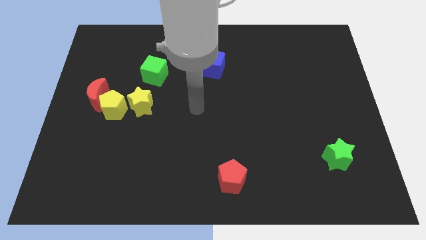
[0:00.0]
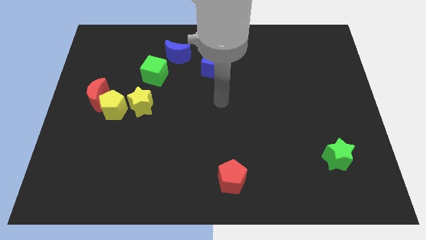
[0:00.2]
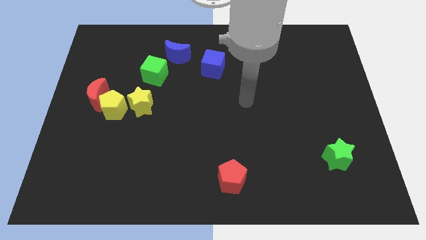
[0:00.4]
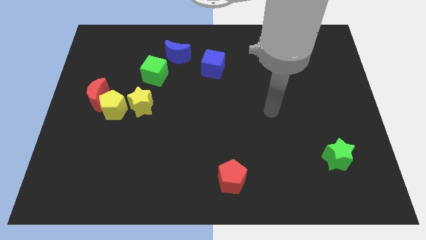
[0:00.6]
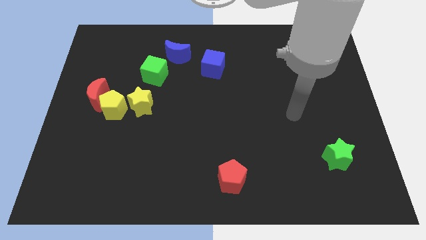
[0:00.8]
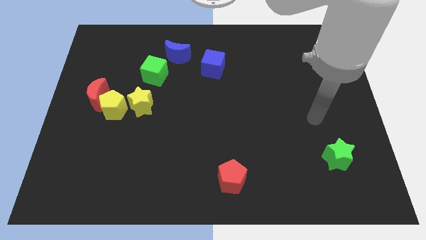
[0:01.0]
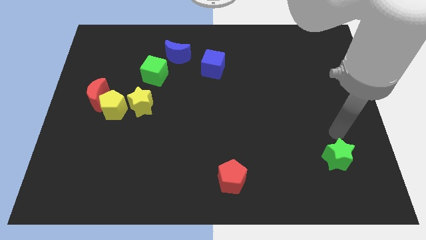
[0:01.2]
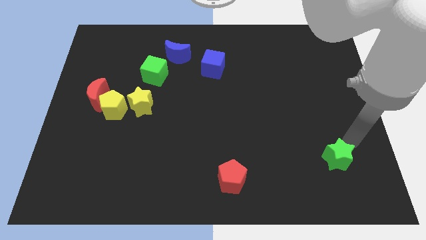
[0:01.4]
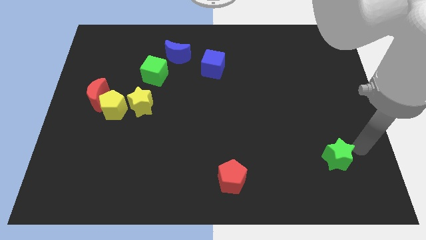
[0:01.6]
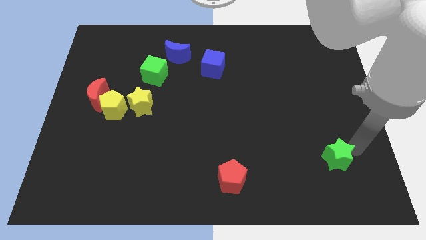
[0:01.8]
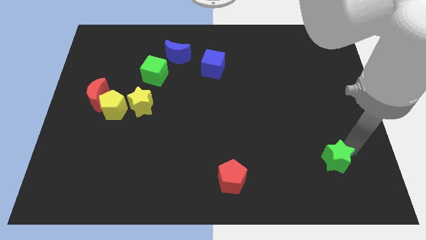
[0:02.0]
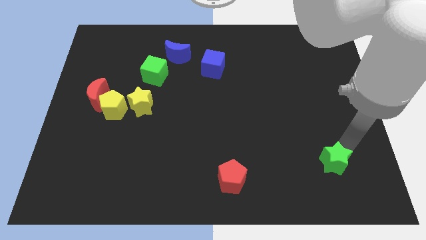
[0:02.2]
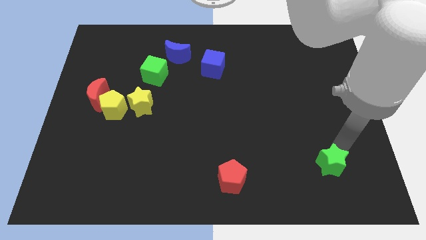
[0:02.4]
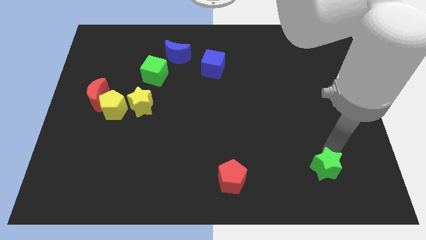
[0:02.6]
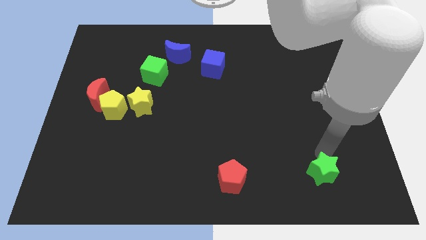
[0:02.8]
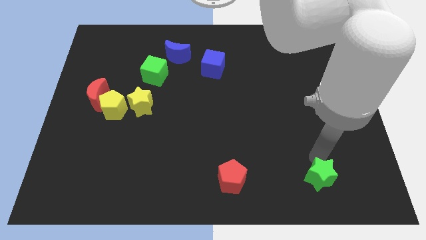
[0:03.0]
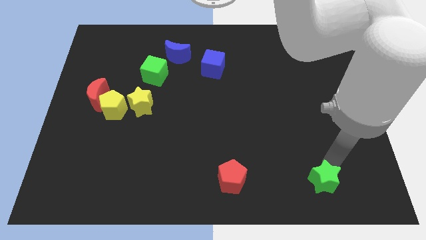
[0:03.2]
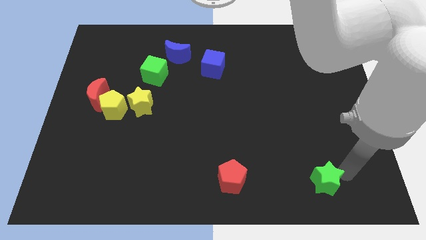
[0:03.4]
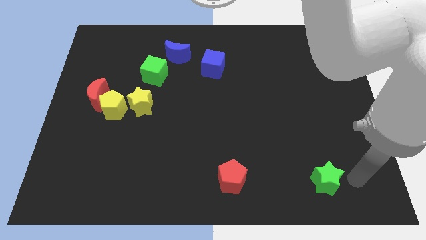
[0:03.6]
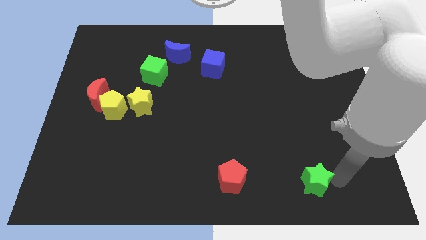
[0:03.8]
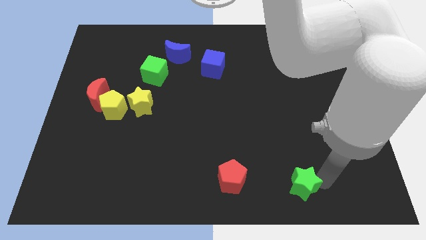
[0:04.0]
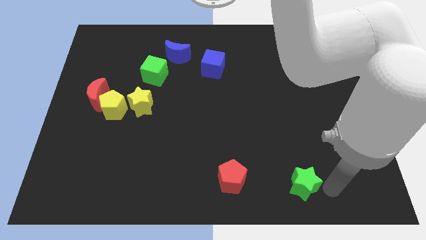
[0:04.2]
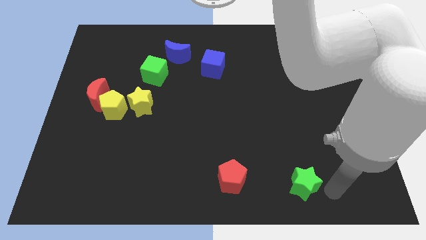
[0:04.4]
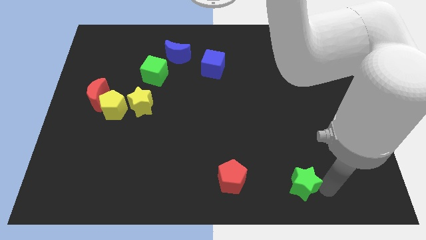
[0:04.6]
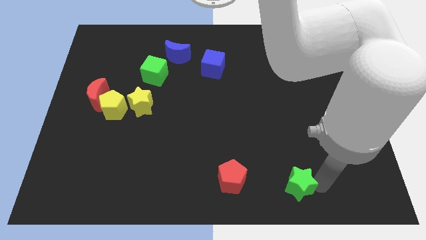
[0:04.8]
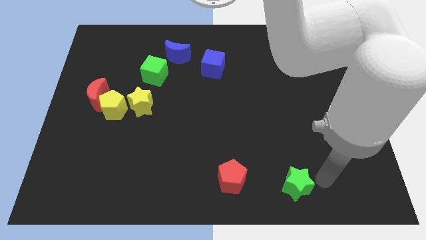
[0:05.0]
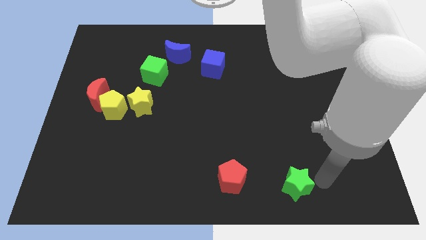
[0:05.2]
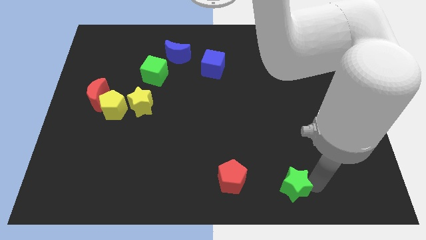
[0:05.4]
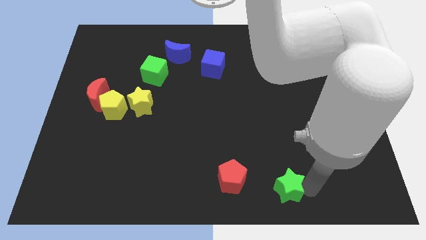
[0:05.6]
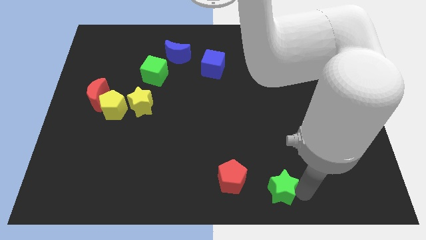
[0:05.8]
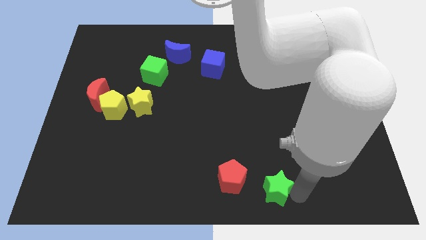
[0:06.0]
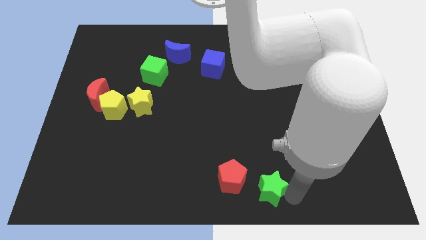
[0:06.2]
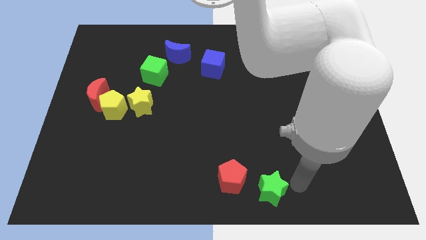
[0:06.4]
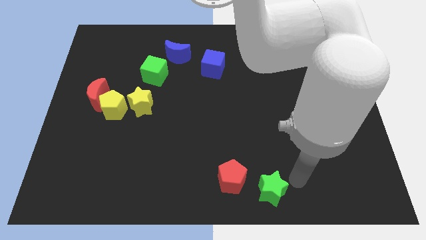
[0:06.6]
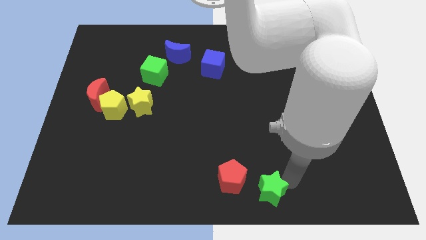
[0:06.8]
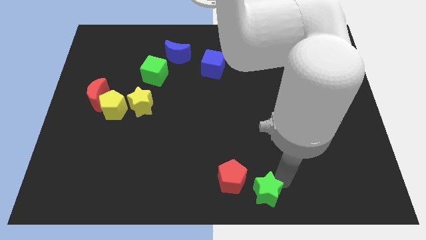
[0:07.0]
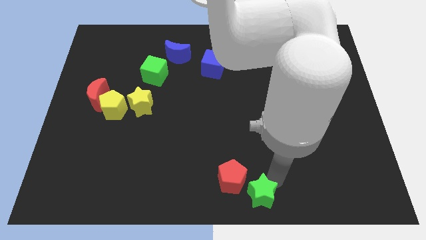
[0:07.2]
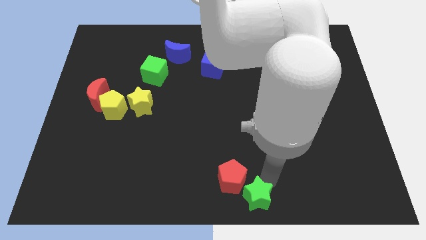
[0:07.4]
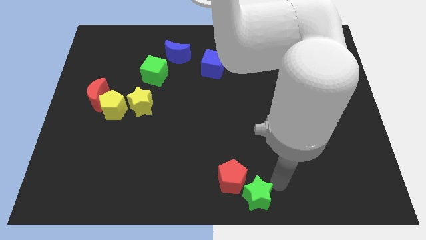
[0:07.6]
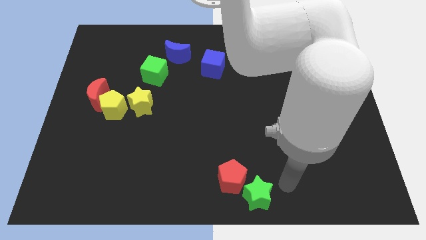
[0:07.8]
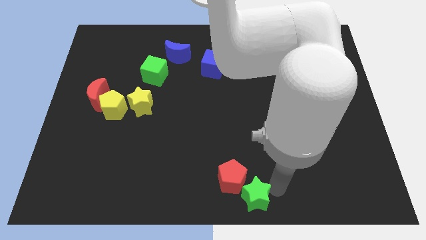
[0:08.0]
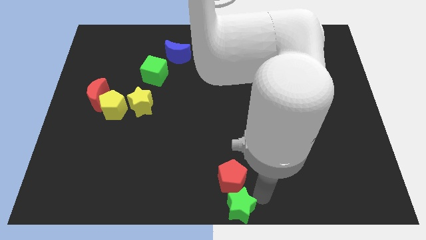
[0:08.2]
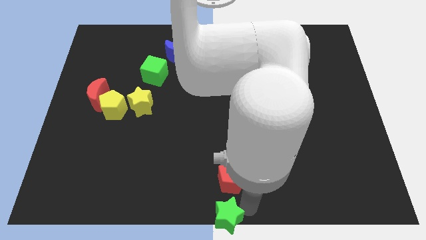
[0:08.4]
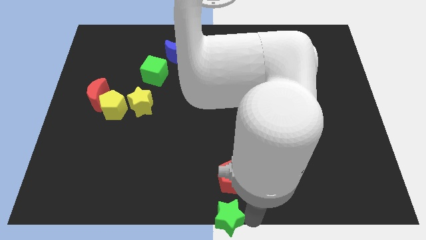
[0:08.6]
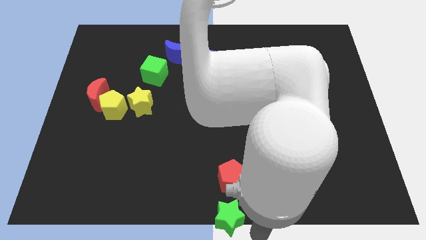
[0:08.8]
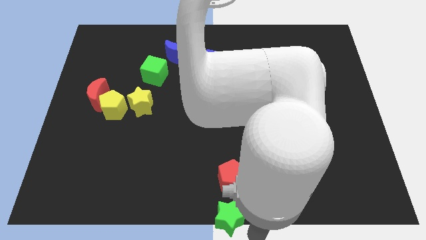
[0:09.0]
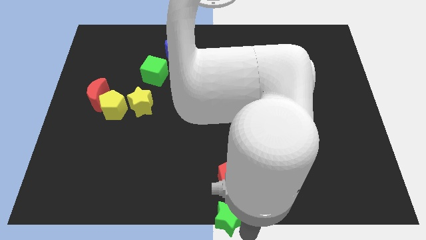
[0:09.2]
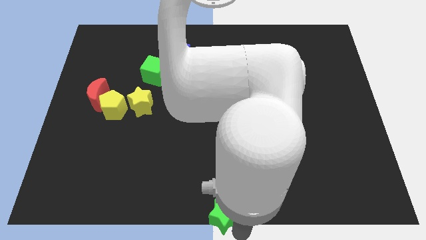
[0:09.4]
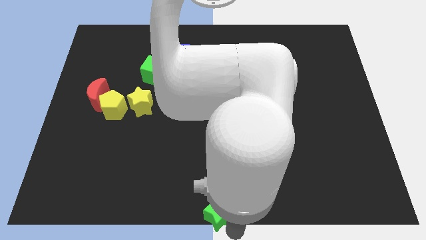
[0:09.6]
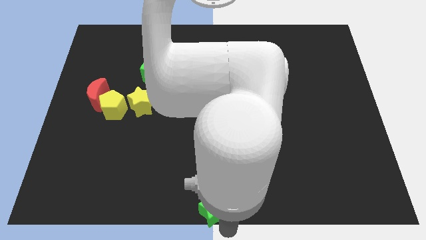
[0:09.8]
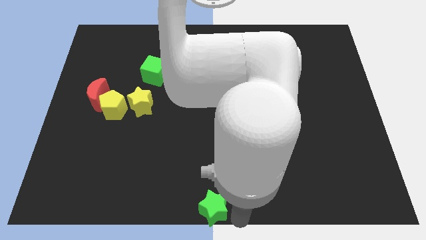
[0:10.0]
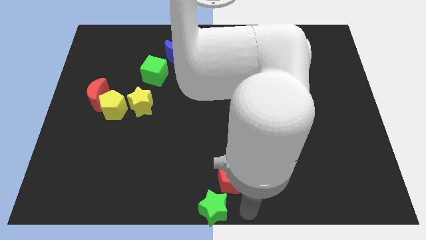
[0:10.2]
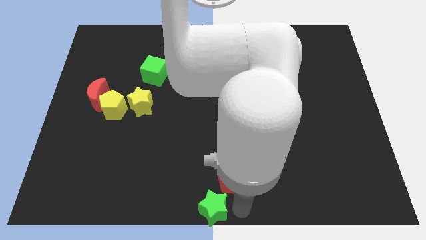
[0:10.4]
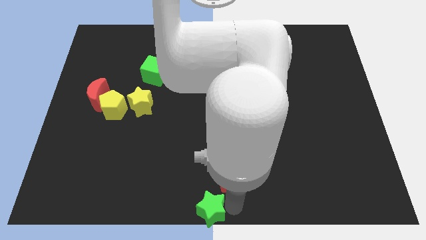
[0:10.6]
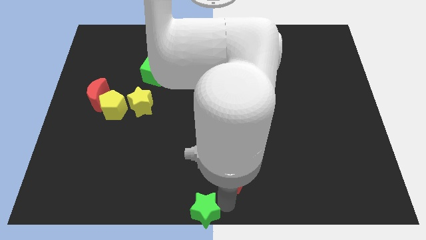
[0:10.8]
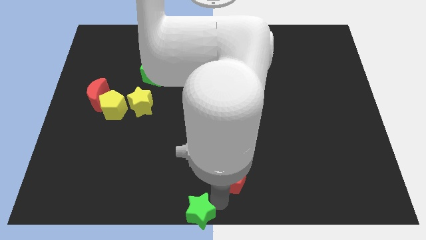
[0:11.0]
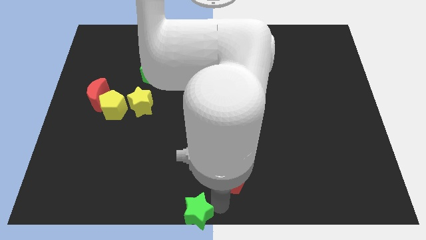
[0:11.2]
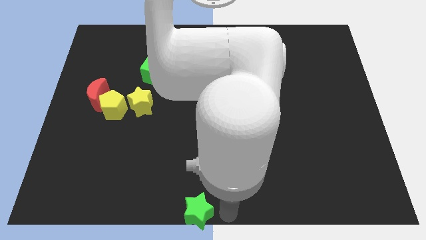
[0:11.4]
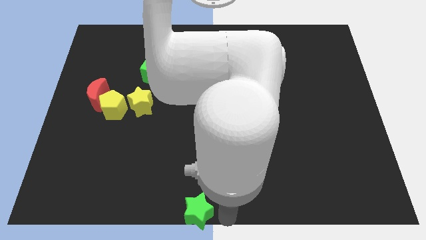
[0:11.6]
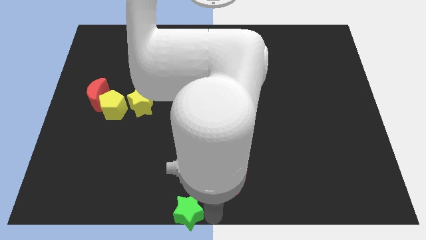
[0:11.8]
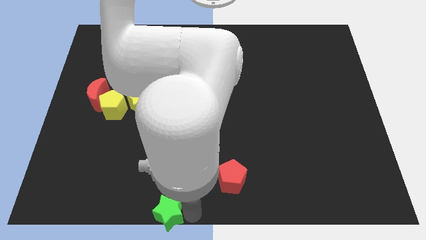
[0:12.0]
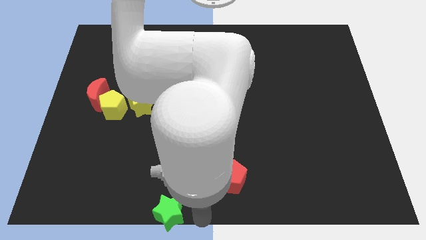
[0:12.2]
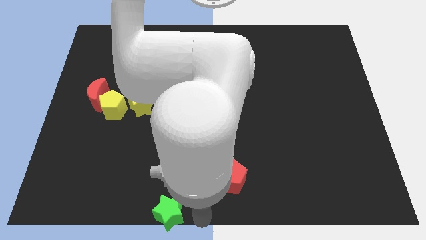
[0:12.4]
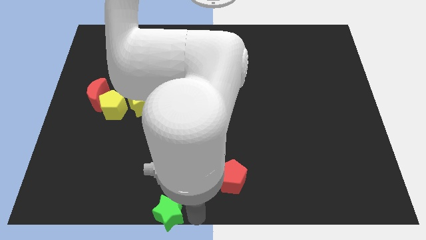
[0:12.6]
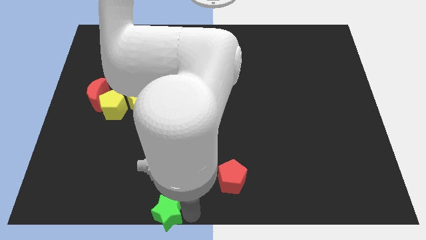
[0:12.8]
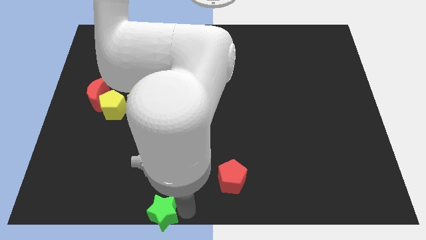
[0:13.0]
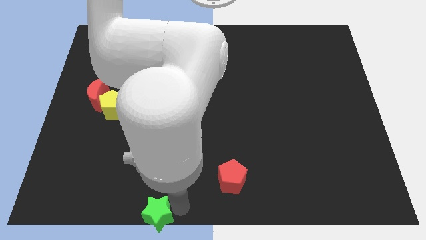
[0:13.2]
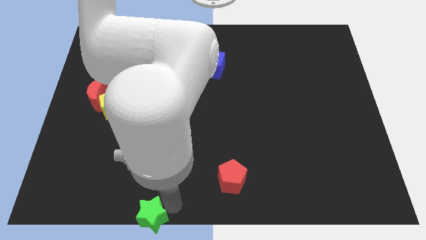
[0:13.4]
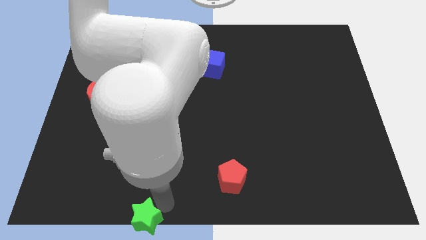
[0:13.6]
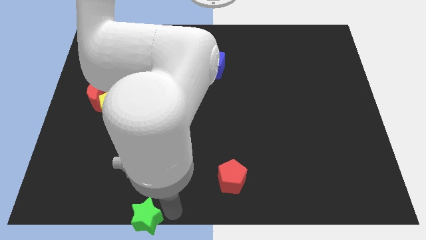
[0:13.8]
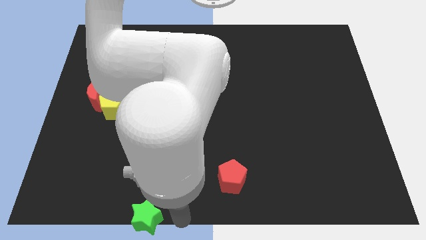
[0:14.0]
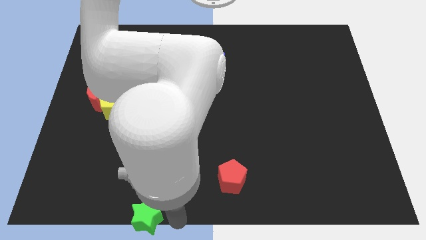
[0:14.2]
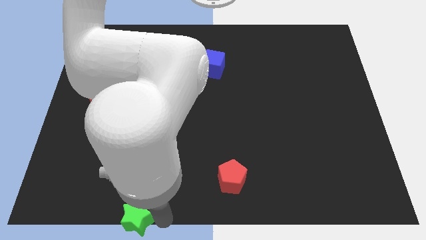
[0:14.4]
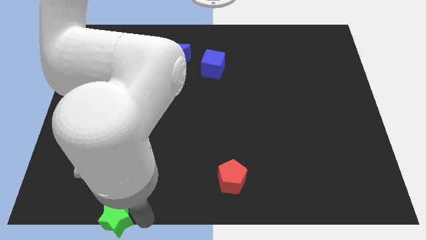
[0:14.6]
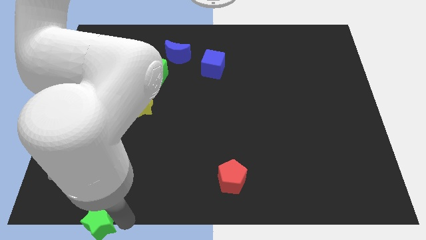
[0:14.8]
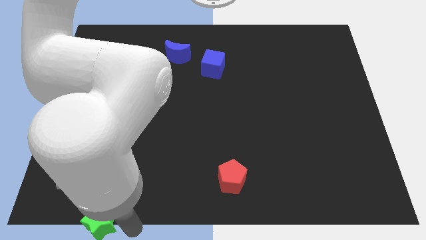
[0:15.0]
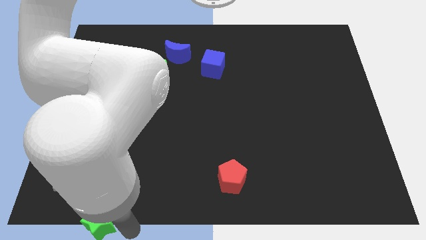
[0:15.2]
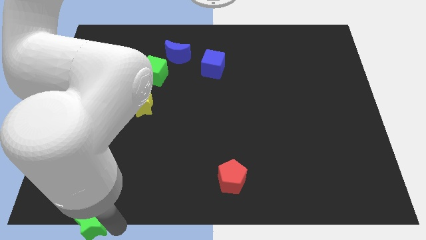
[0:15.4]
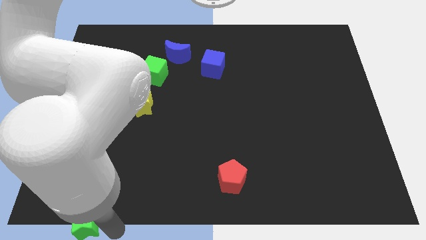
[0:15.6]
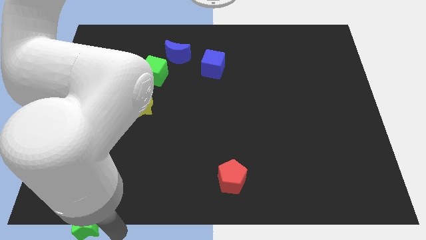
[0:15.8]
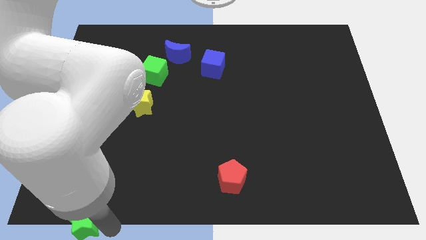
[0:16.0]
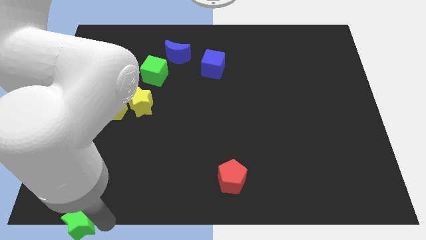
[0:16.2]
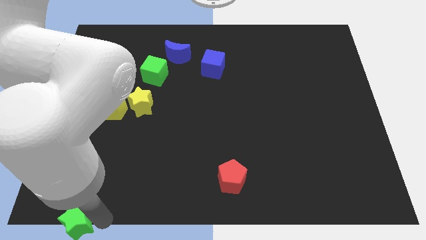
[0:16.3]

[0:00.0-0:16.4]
slide the green star to the bottom left
